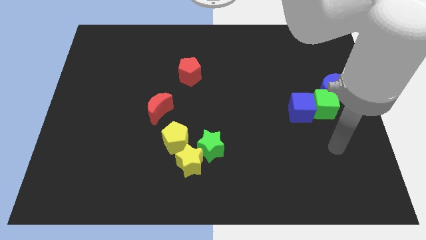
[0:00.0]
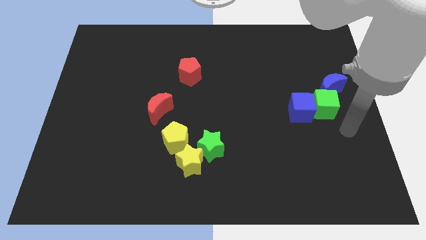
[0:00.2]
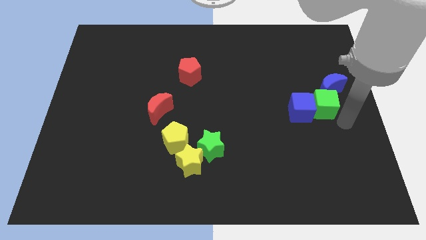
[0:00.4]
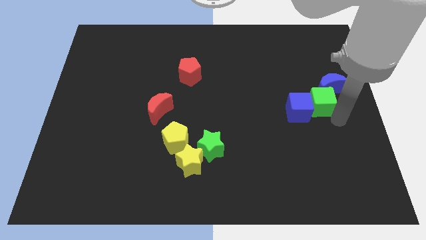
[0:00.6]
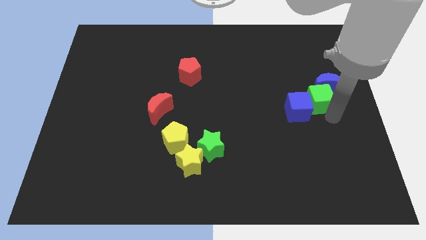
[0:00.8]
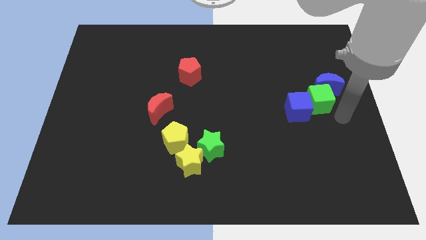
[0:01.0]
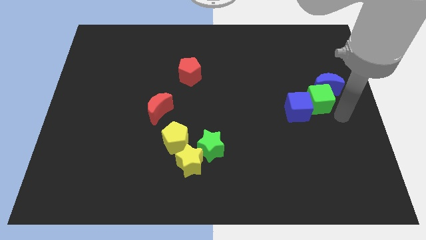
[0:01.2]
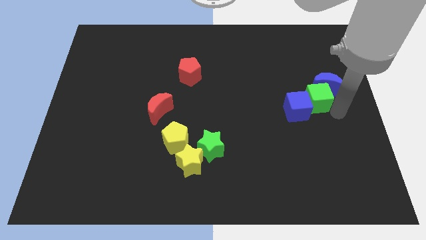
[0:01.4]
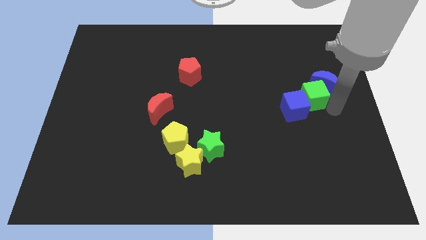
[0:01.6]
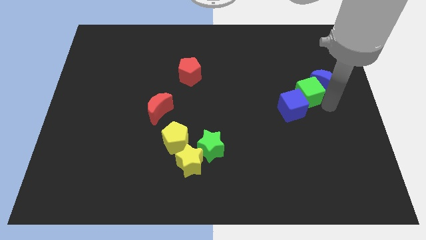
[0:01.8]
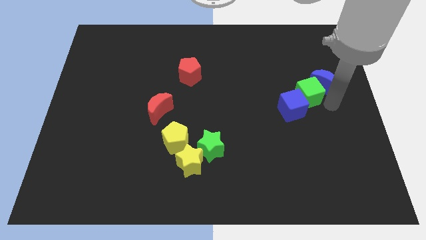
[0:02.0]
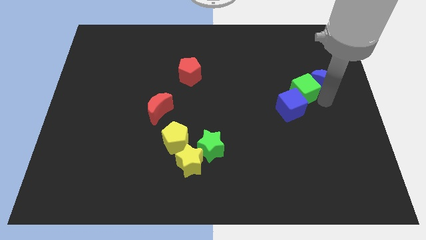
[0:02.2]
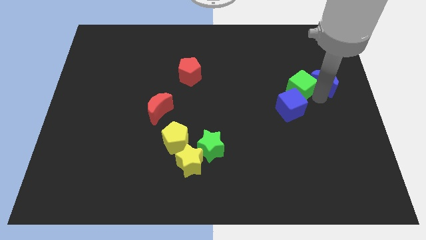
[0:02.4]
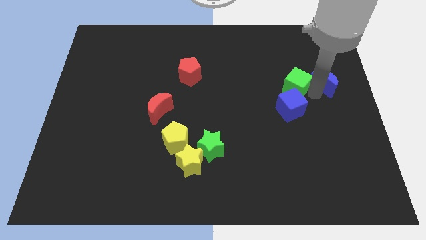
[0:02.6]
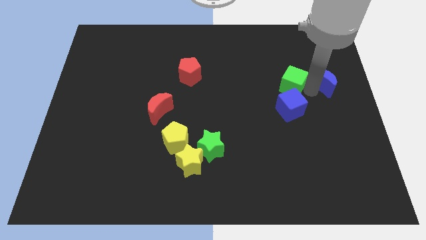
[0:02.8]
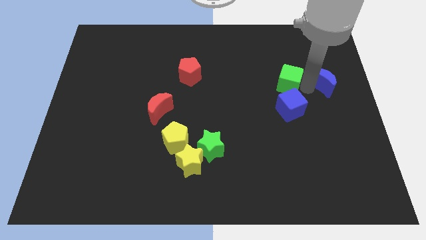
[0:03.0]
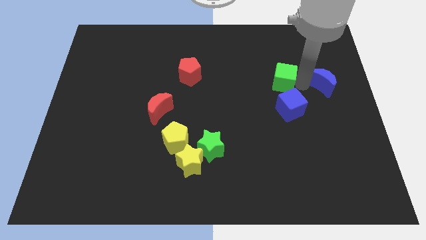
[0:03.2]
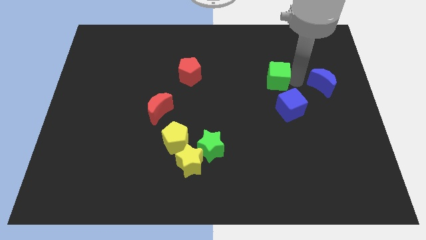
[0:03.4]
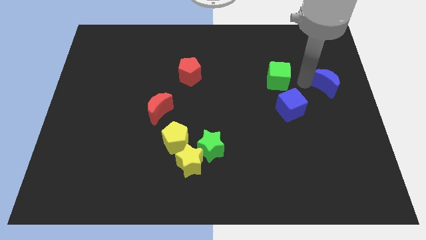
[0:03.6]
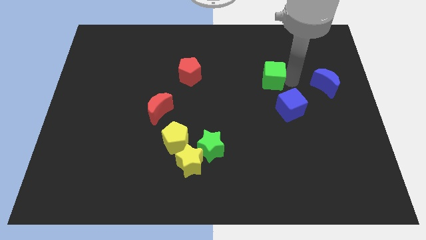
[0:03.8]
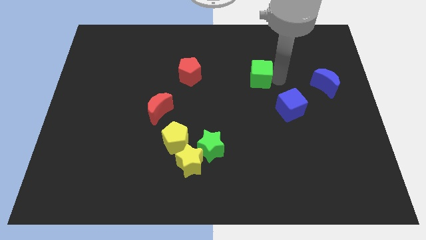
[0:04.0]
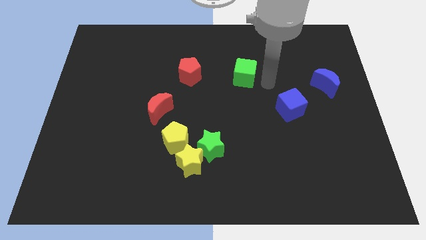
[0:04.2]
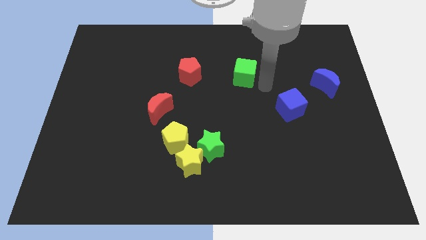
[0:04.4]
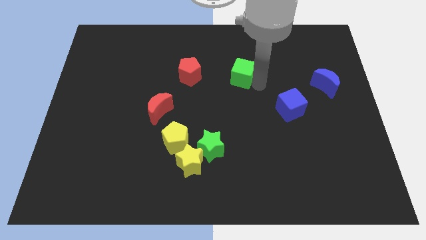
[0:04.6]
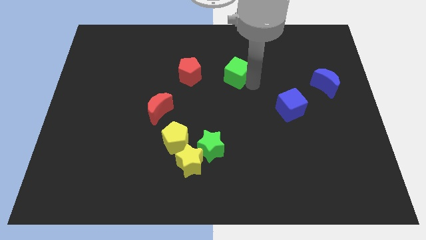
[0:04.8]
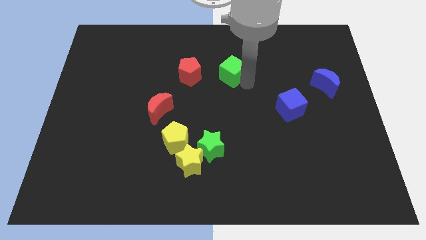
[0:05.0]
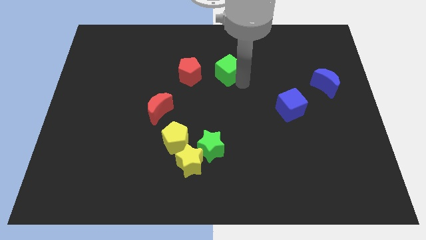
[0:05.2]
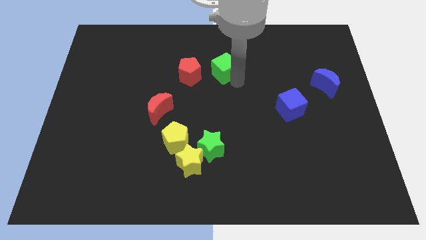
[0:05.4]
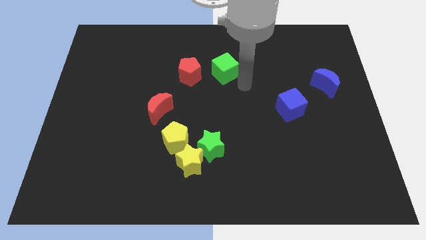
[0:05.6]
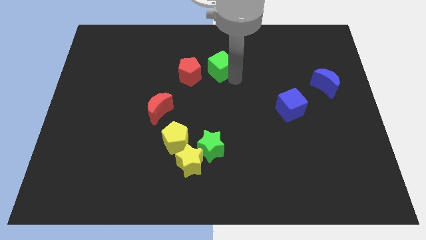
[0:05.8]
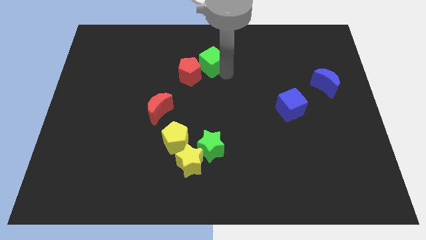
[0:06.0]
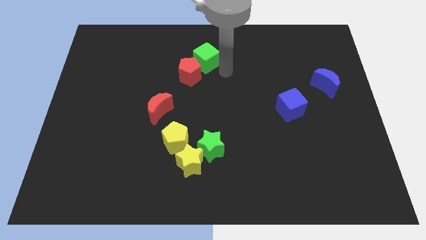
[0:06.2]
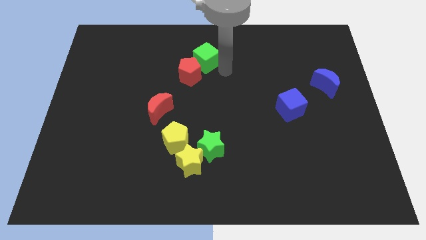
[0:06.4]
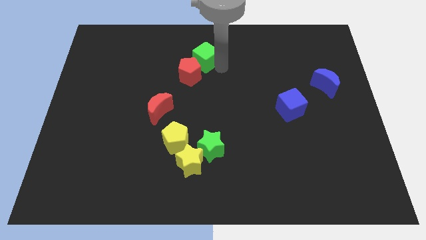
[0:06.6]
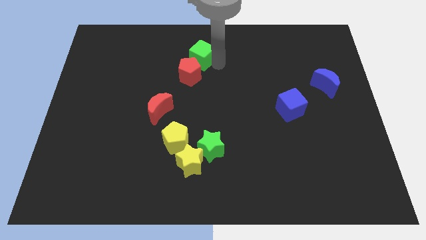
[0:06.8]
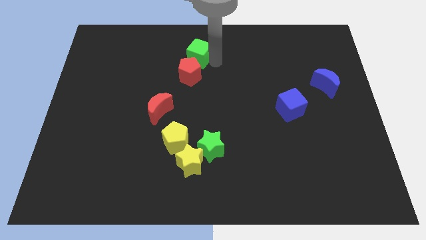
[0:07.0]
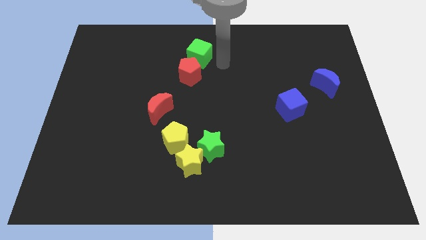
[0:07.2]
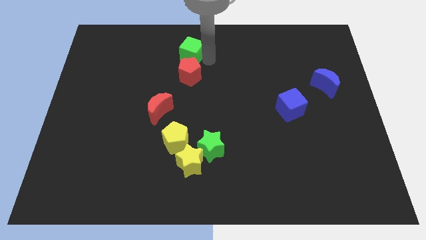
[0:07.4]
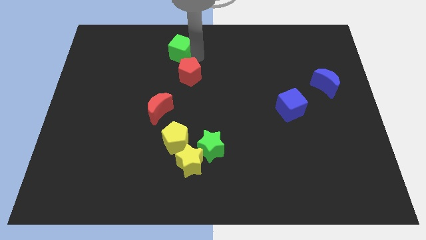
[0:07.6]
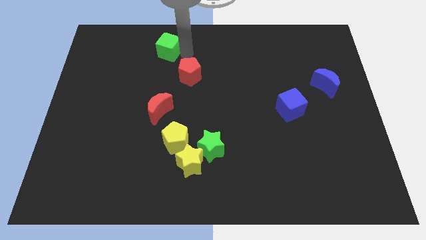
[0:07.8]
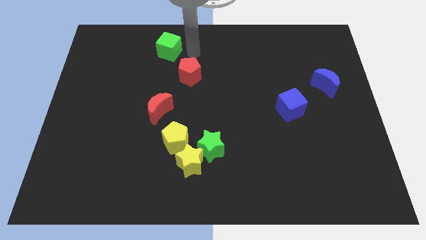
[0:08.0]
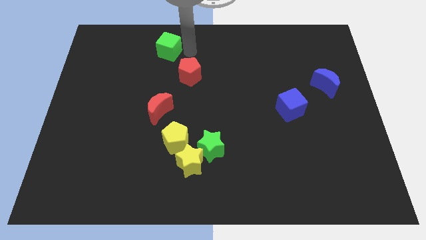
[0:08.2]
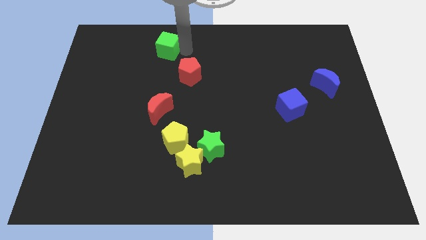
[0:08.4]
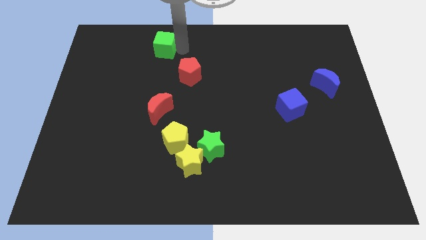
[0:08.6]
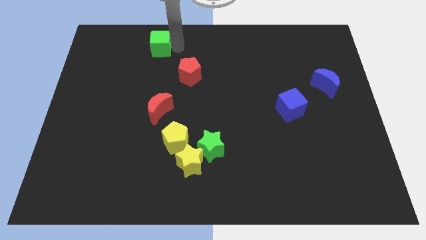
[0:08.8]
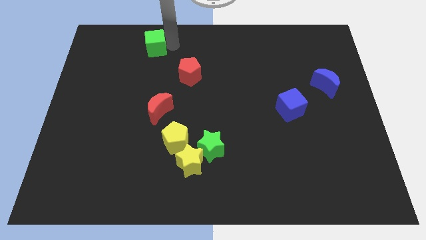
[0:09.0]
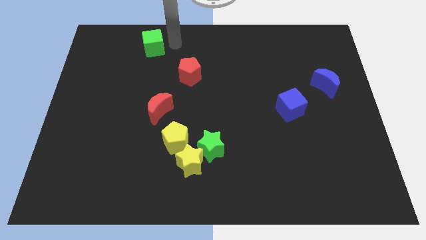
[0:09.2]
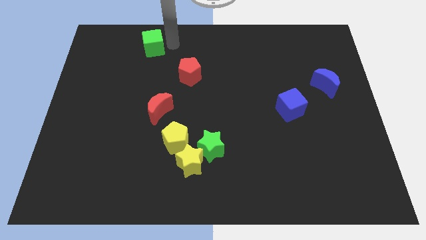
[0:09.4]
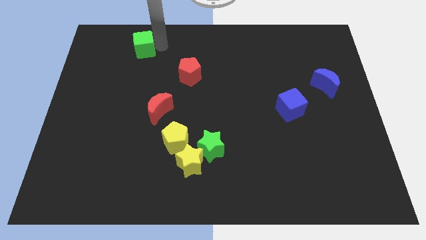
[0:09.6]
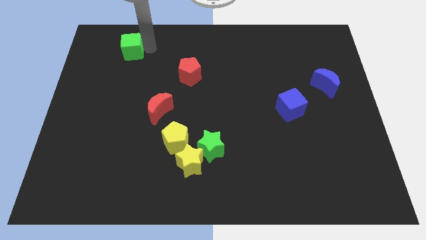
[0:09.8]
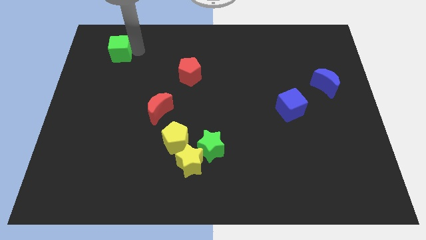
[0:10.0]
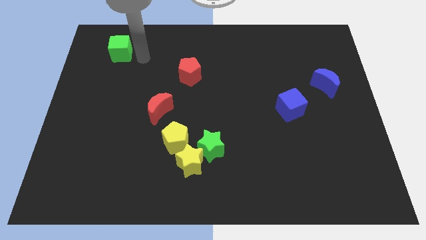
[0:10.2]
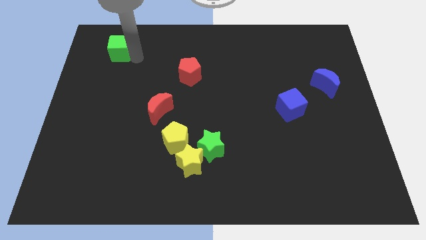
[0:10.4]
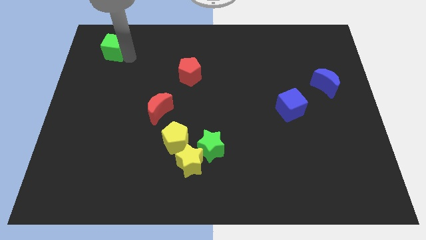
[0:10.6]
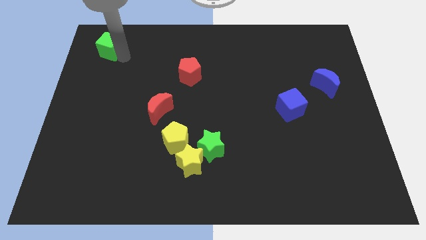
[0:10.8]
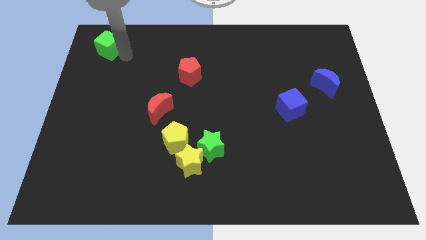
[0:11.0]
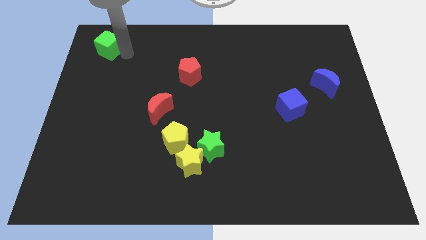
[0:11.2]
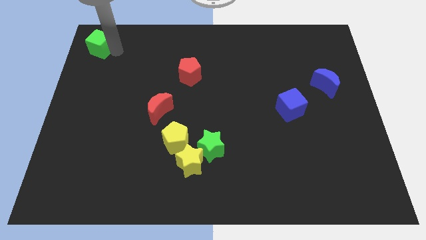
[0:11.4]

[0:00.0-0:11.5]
put the green cube to the upper left corner
